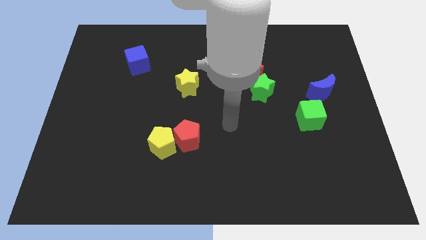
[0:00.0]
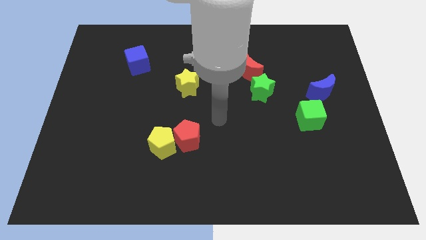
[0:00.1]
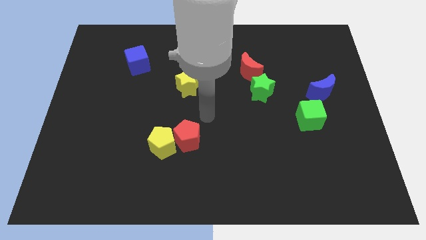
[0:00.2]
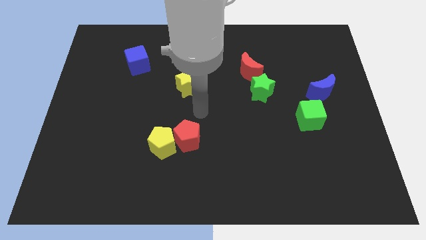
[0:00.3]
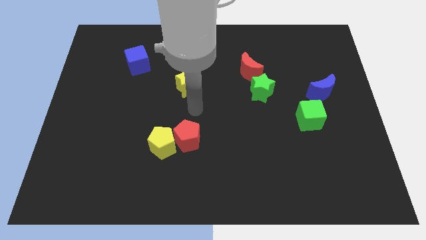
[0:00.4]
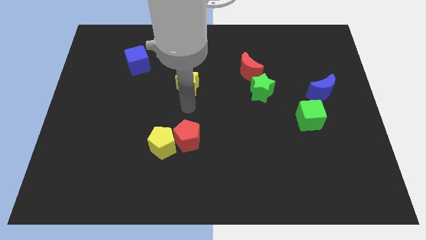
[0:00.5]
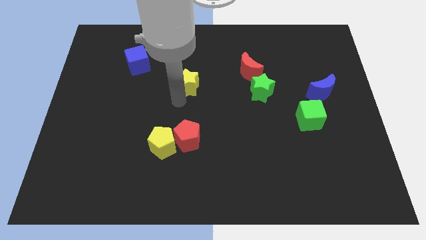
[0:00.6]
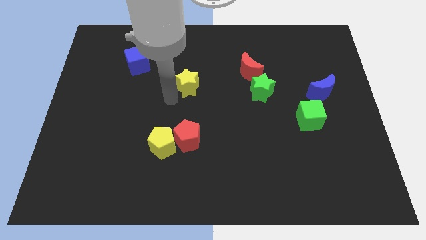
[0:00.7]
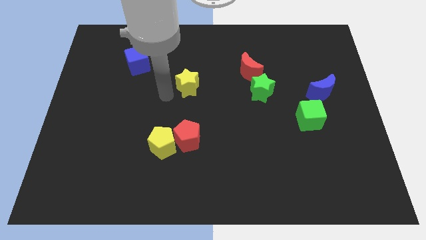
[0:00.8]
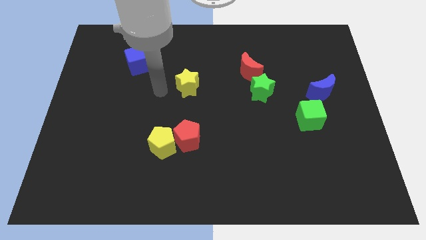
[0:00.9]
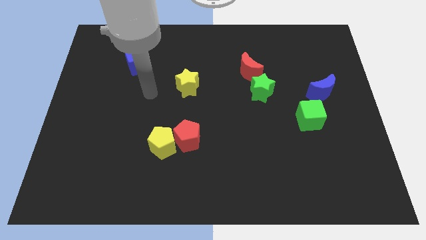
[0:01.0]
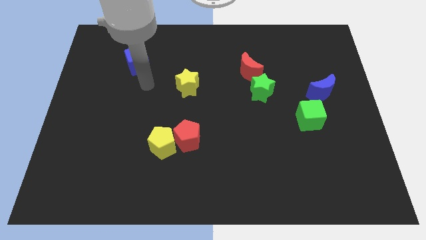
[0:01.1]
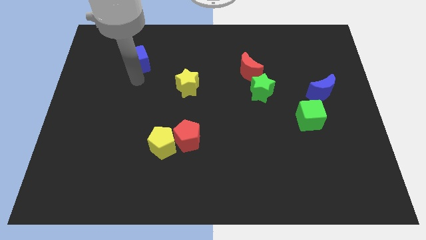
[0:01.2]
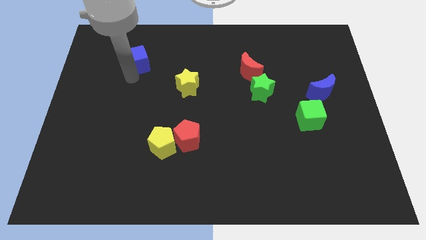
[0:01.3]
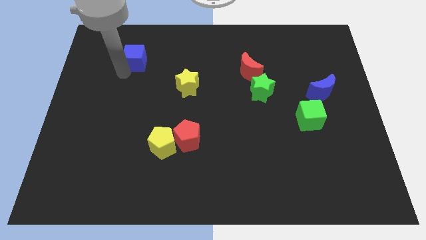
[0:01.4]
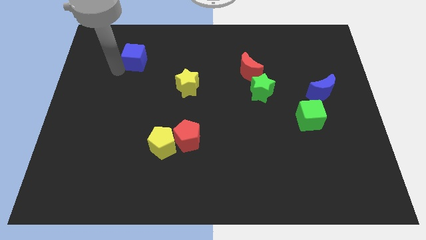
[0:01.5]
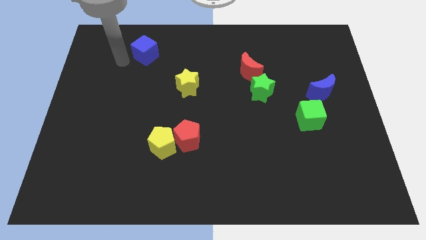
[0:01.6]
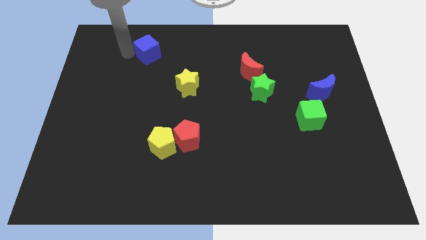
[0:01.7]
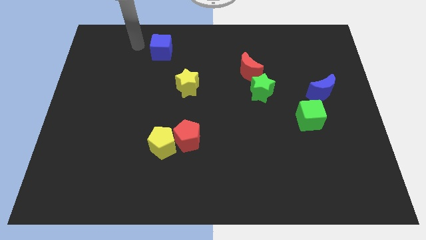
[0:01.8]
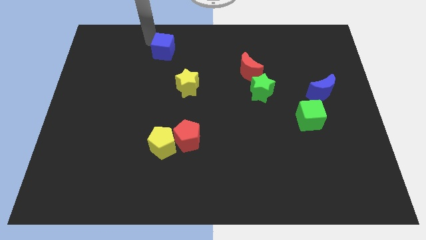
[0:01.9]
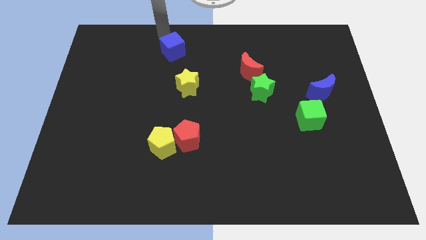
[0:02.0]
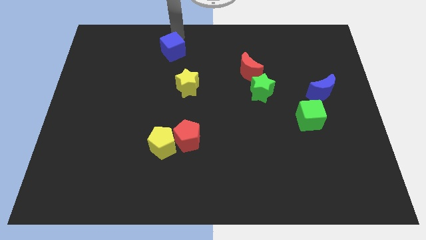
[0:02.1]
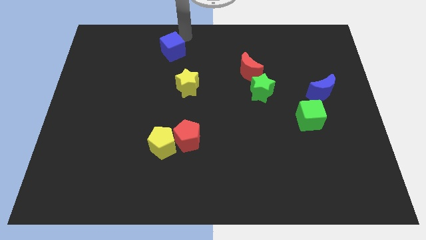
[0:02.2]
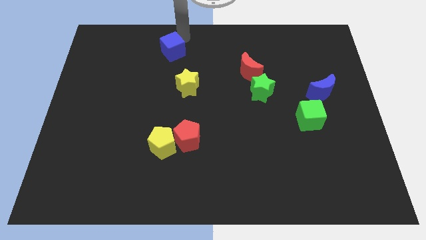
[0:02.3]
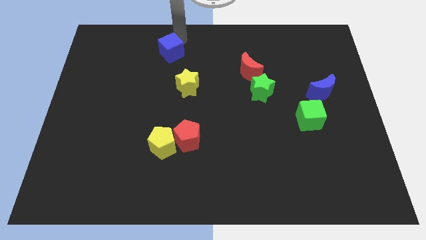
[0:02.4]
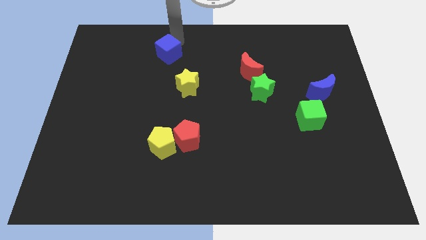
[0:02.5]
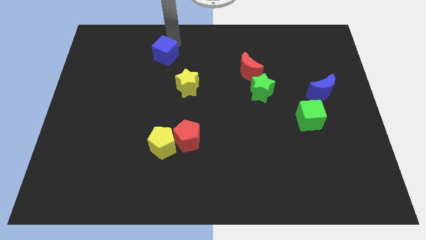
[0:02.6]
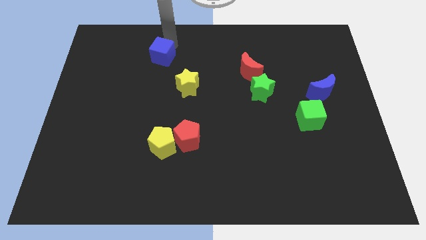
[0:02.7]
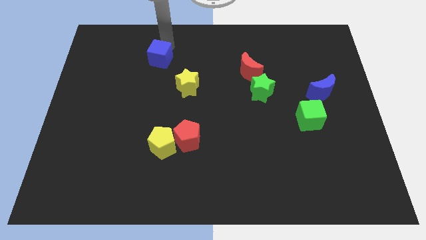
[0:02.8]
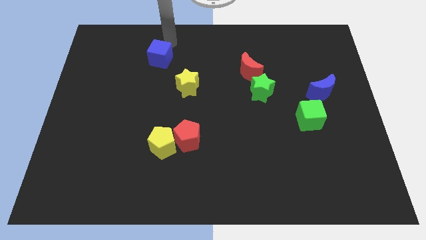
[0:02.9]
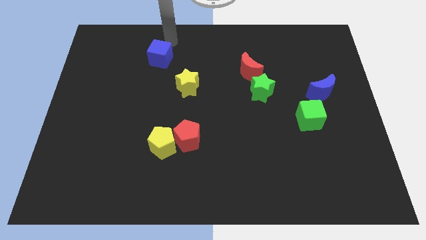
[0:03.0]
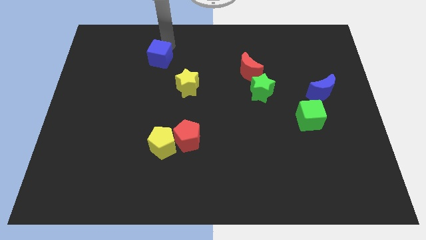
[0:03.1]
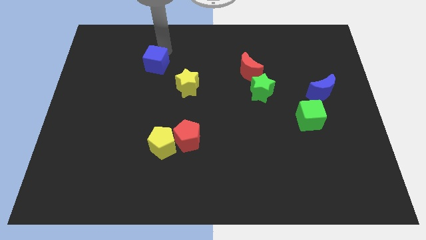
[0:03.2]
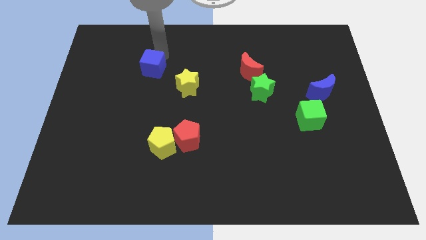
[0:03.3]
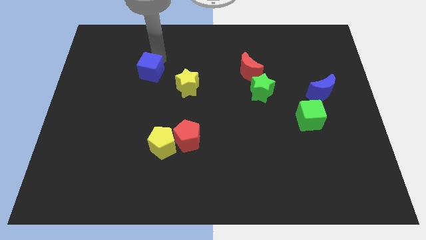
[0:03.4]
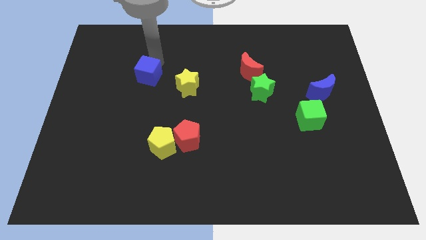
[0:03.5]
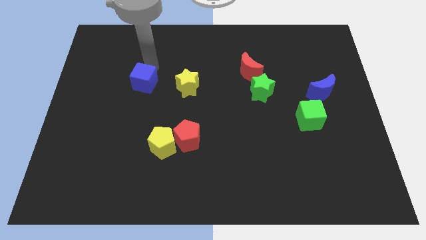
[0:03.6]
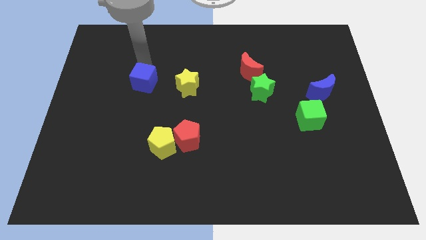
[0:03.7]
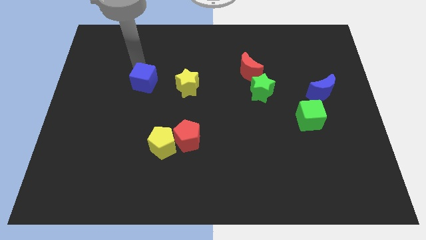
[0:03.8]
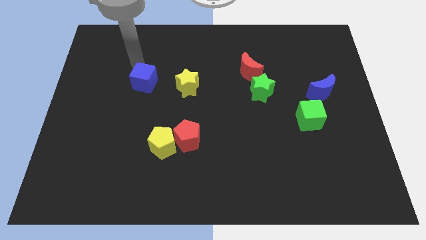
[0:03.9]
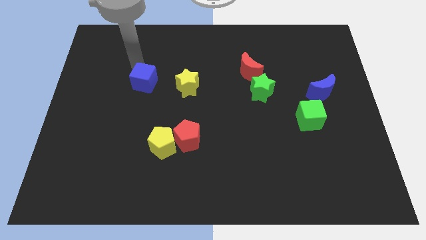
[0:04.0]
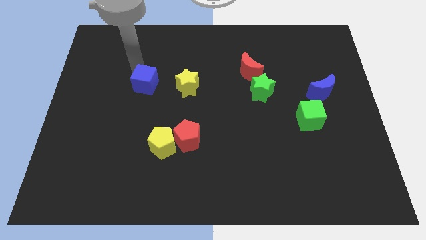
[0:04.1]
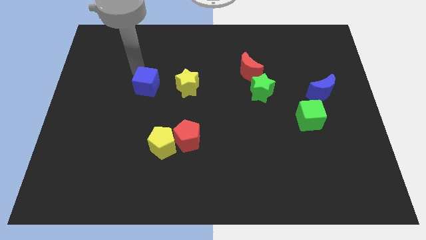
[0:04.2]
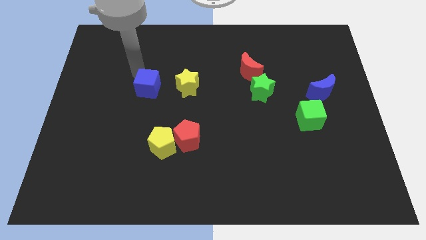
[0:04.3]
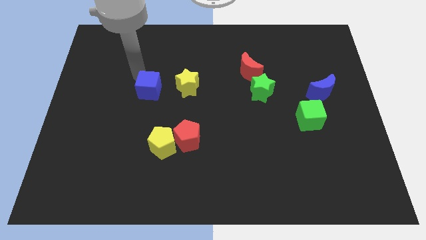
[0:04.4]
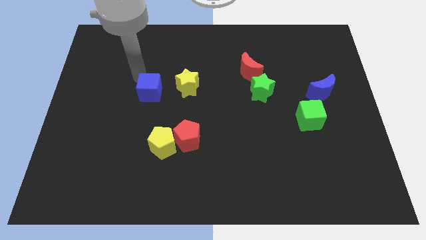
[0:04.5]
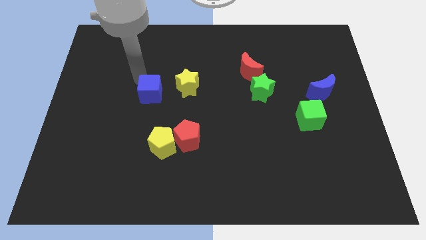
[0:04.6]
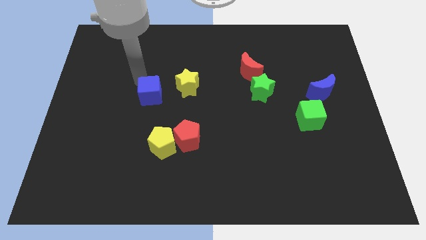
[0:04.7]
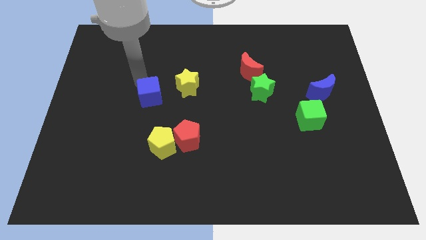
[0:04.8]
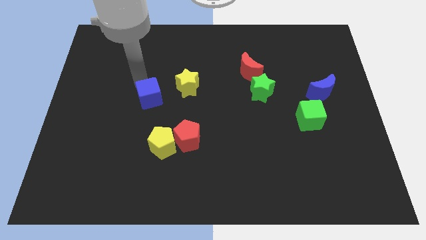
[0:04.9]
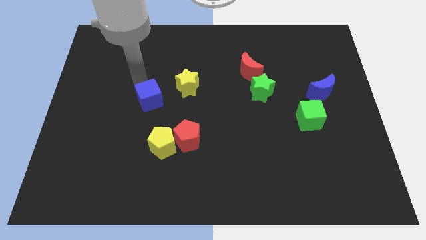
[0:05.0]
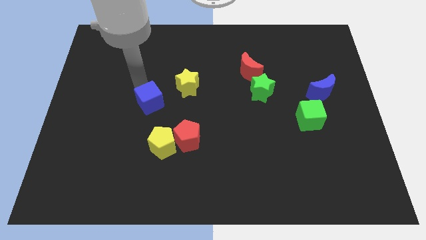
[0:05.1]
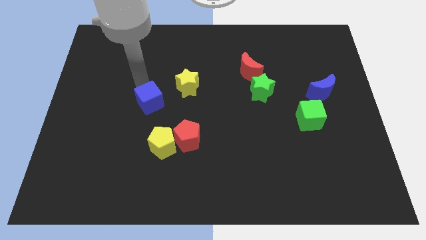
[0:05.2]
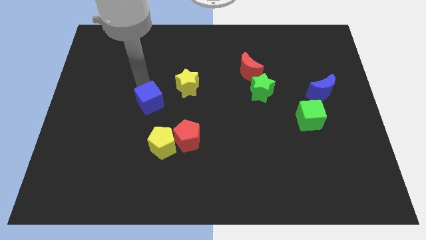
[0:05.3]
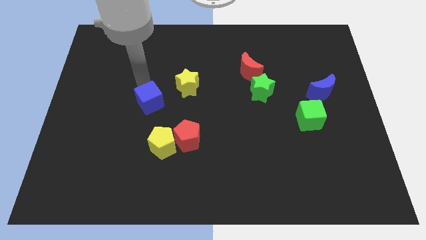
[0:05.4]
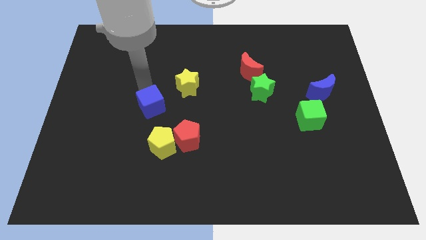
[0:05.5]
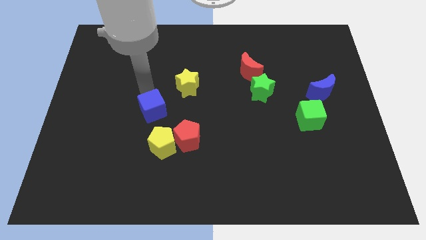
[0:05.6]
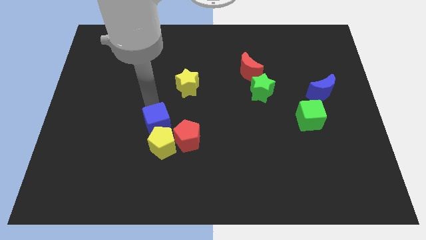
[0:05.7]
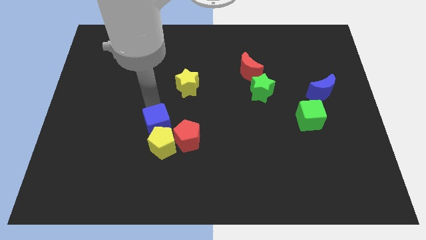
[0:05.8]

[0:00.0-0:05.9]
move the blue cube next to the yellow pentagon

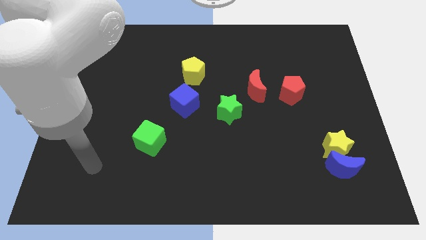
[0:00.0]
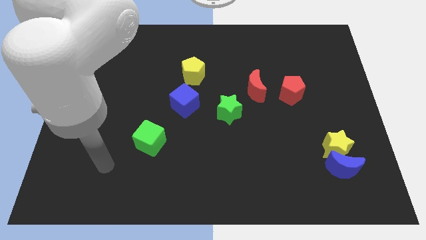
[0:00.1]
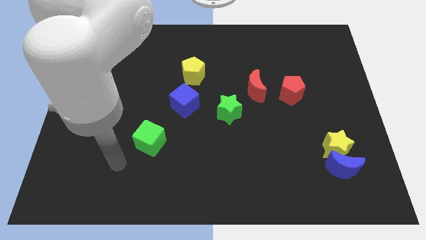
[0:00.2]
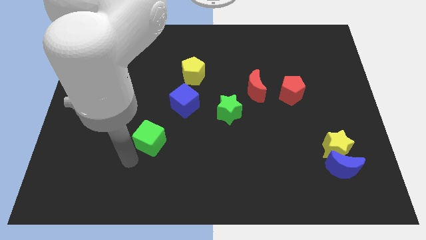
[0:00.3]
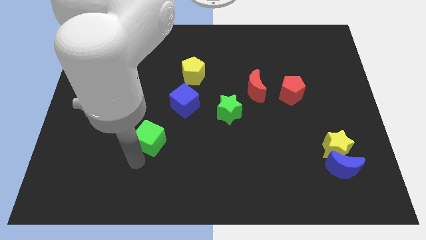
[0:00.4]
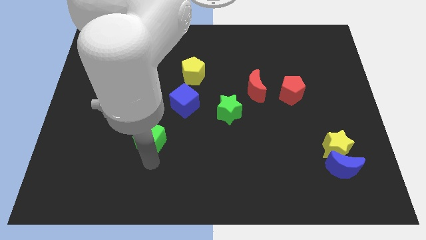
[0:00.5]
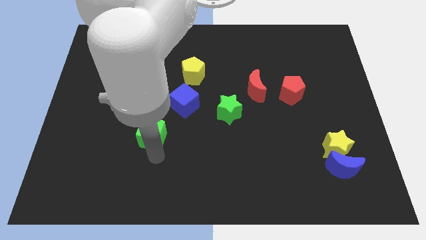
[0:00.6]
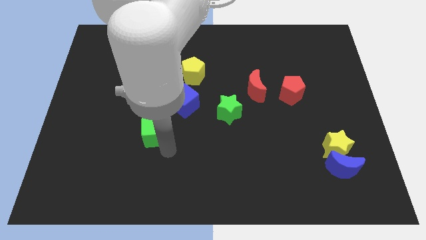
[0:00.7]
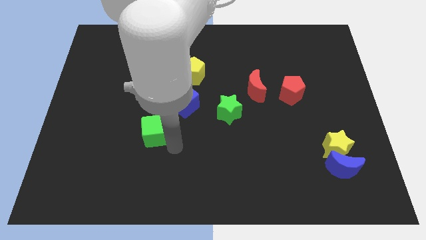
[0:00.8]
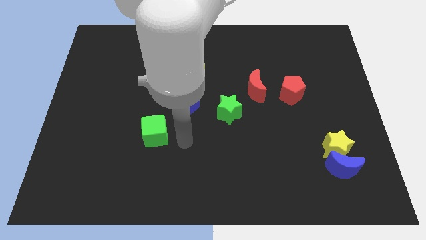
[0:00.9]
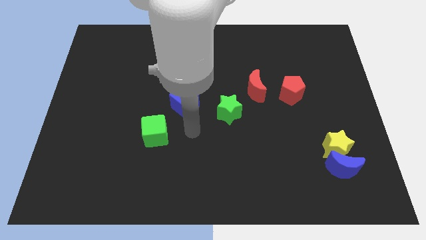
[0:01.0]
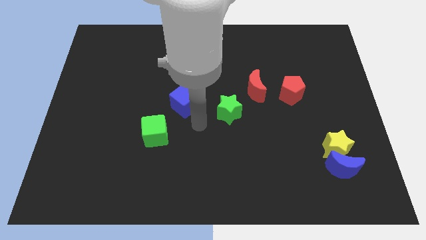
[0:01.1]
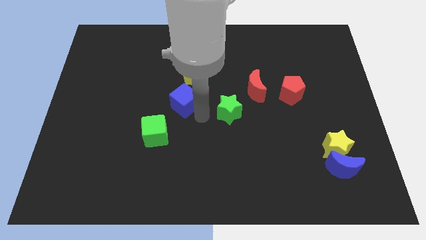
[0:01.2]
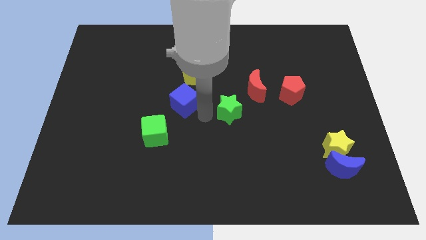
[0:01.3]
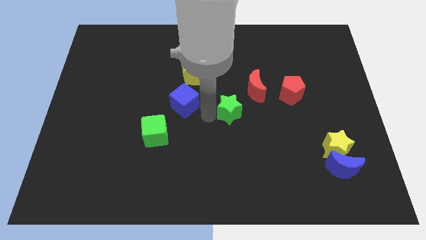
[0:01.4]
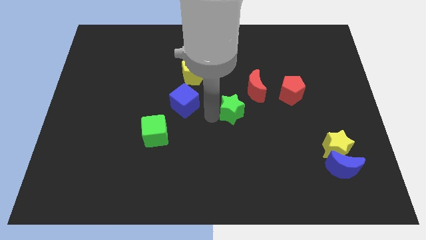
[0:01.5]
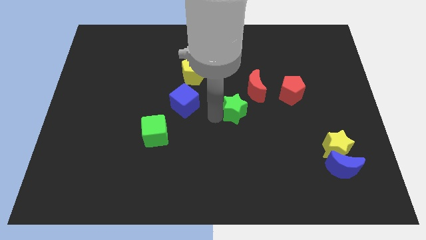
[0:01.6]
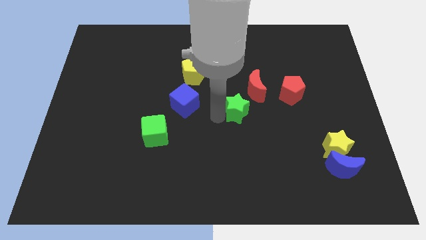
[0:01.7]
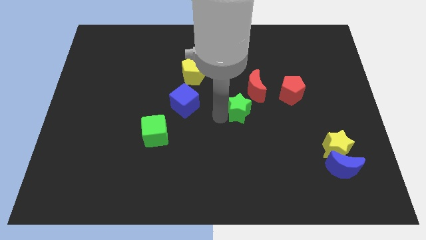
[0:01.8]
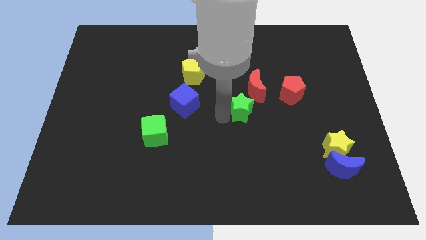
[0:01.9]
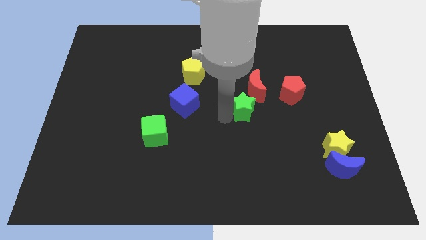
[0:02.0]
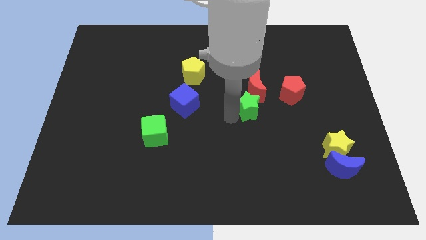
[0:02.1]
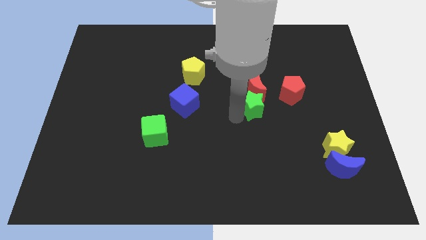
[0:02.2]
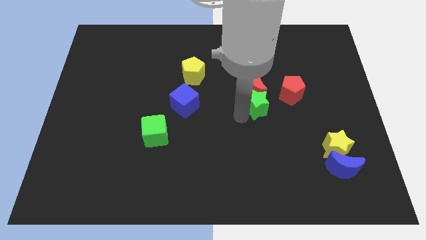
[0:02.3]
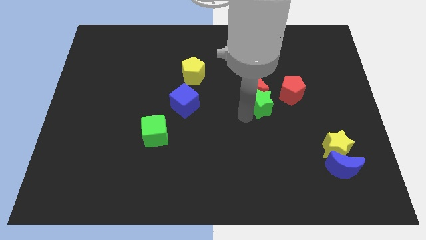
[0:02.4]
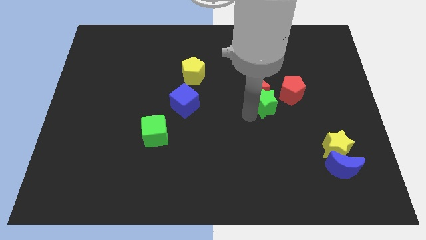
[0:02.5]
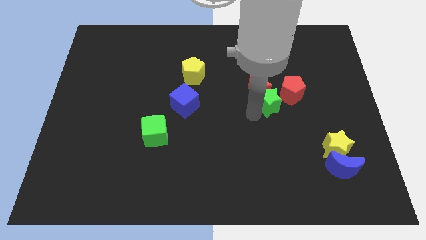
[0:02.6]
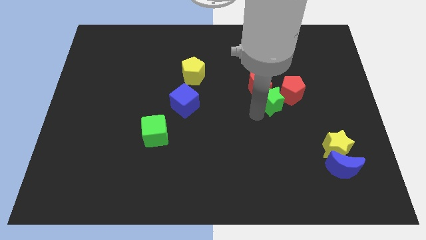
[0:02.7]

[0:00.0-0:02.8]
put the green star towards the red pentagon
